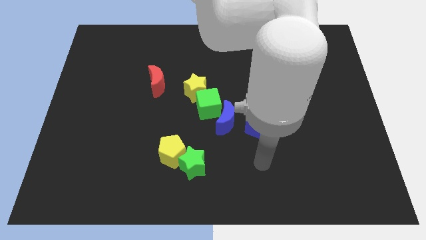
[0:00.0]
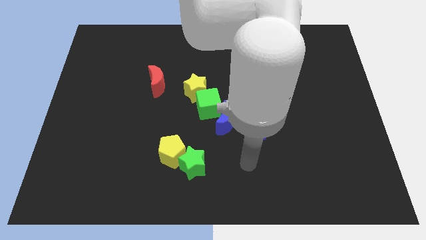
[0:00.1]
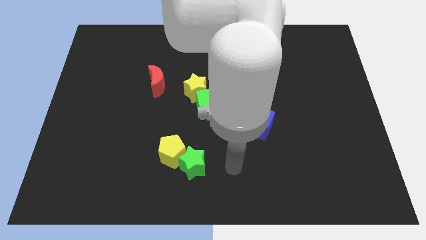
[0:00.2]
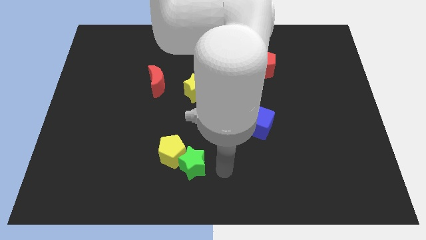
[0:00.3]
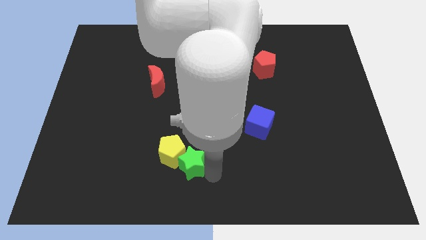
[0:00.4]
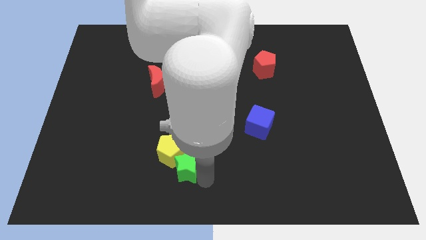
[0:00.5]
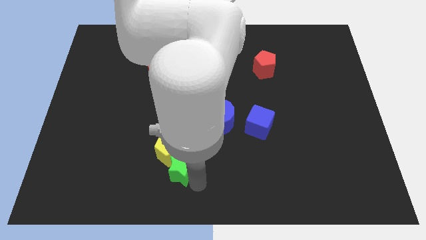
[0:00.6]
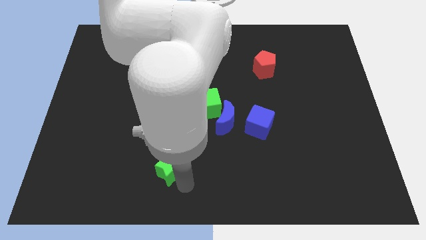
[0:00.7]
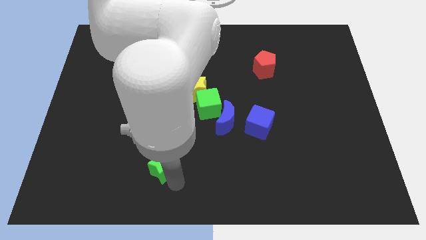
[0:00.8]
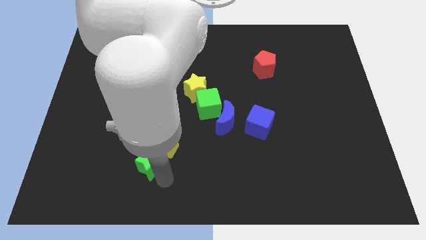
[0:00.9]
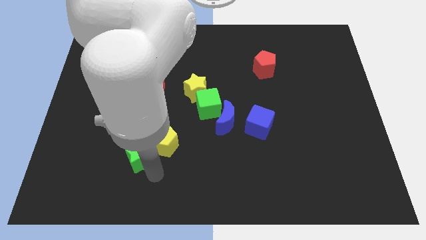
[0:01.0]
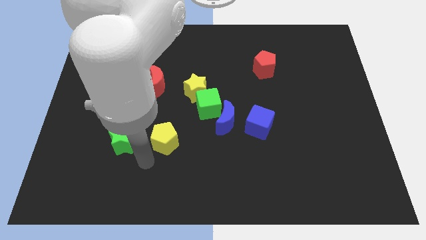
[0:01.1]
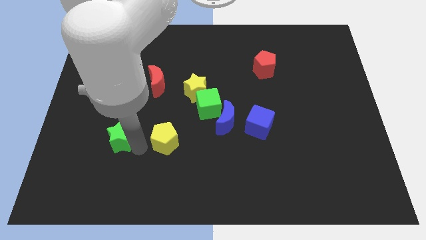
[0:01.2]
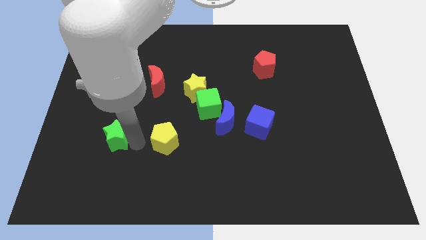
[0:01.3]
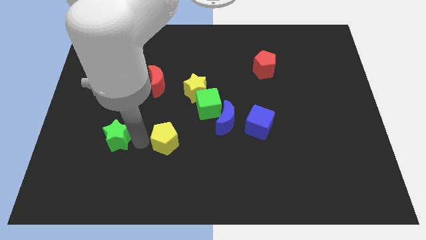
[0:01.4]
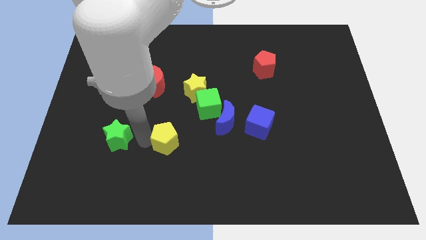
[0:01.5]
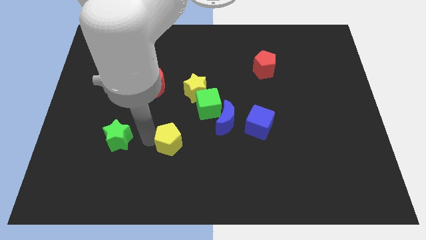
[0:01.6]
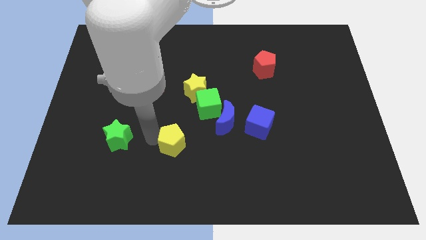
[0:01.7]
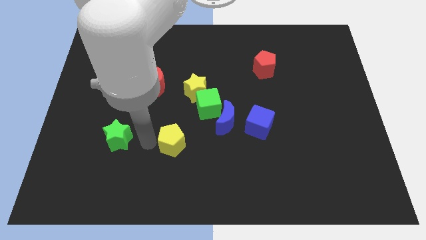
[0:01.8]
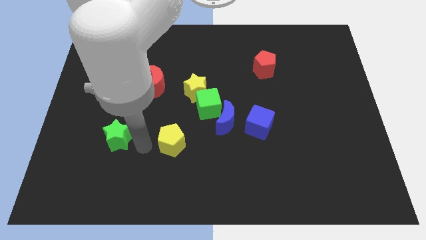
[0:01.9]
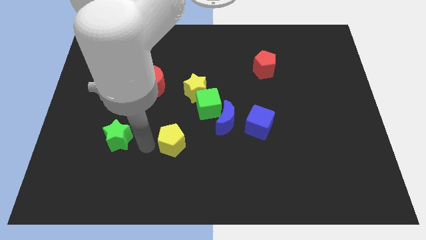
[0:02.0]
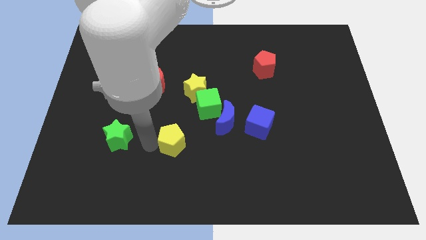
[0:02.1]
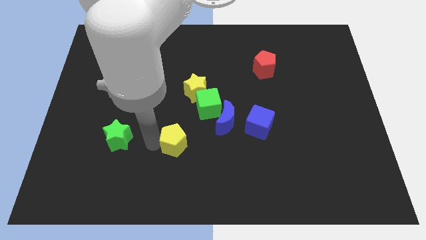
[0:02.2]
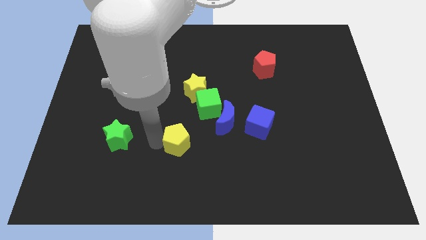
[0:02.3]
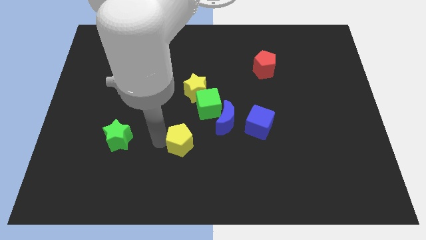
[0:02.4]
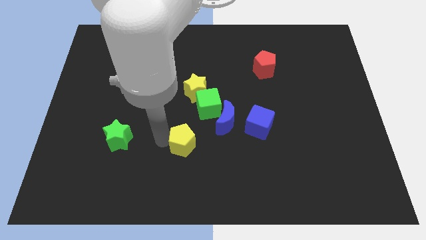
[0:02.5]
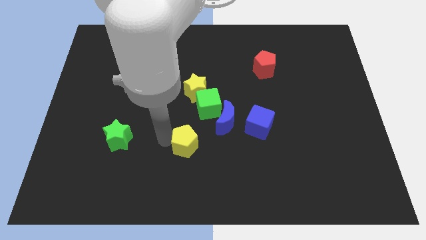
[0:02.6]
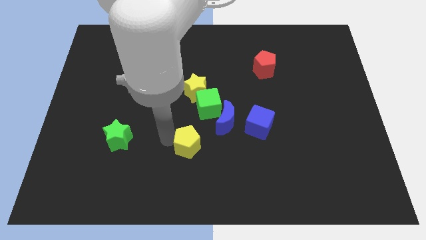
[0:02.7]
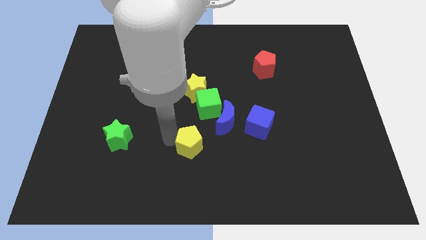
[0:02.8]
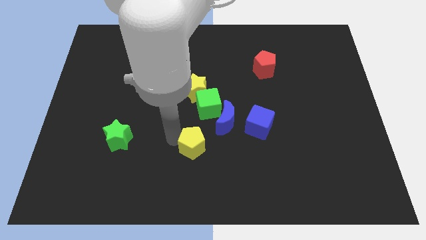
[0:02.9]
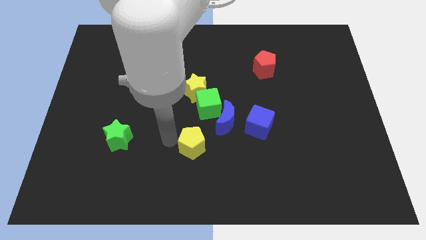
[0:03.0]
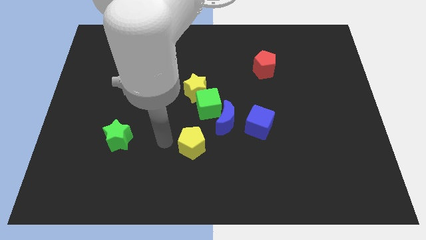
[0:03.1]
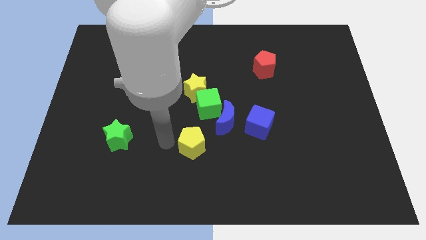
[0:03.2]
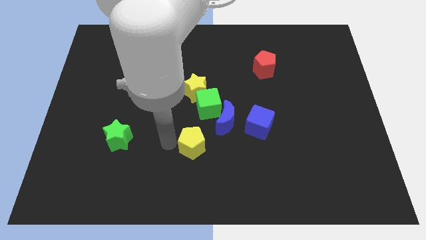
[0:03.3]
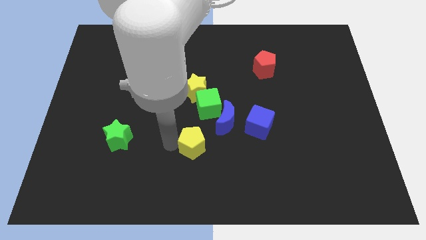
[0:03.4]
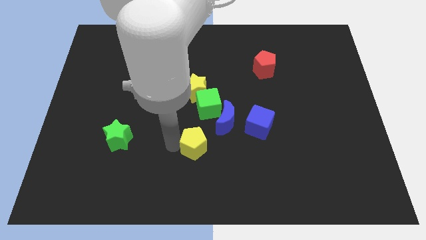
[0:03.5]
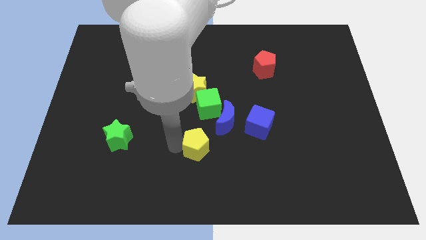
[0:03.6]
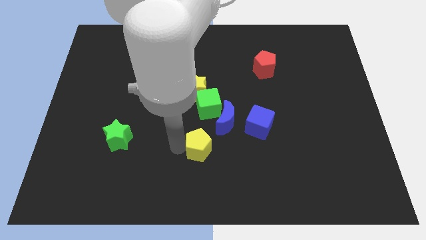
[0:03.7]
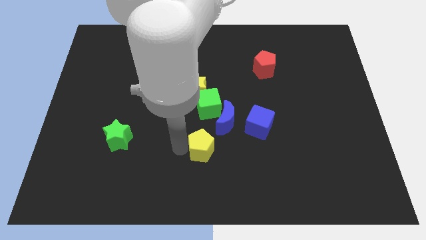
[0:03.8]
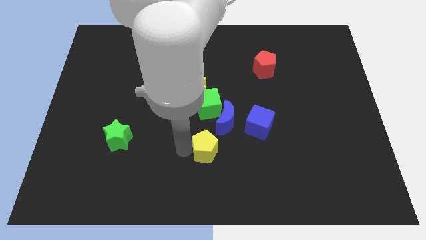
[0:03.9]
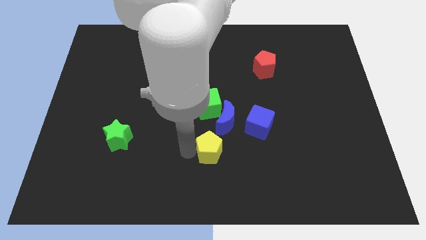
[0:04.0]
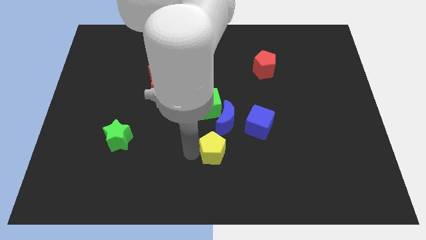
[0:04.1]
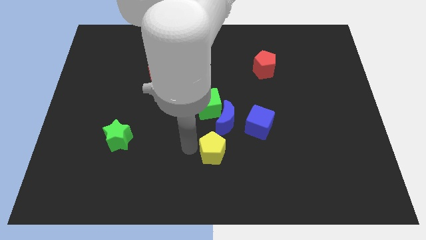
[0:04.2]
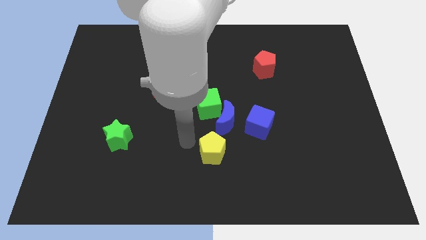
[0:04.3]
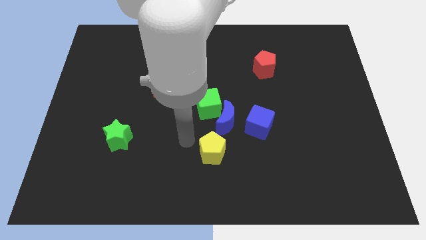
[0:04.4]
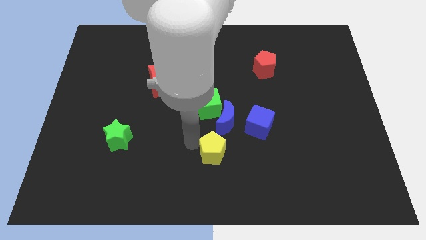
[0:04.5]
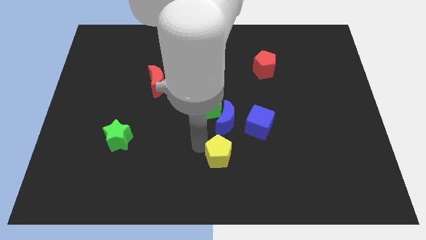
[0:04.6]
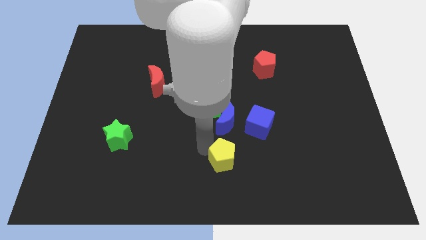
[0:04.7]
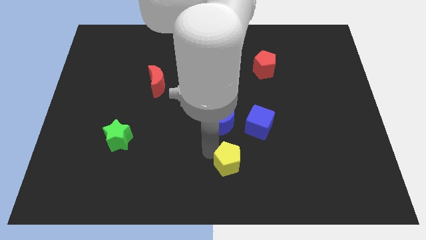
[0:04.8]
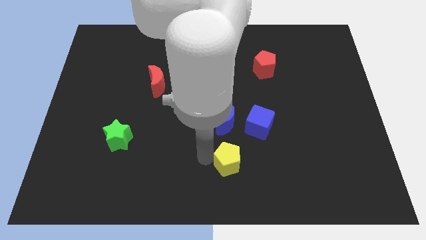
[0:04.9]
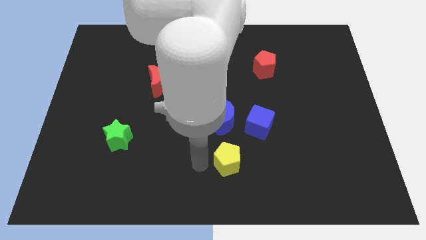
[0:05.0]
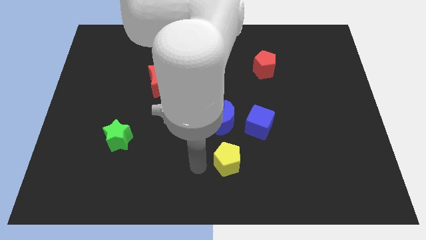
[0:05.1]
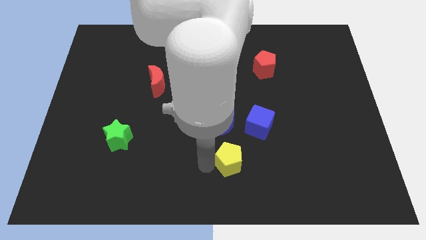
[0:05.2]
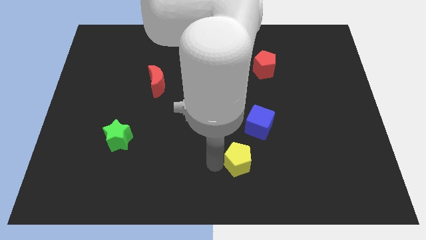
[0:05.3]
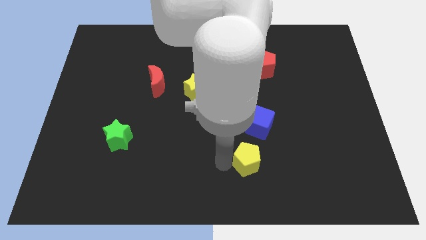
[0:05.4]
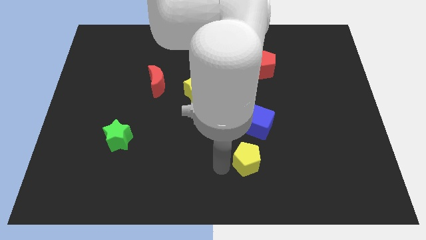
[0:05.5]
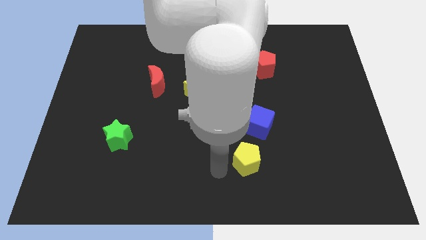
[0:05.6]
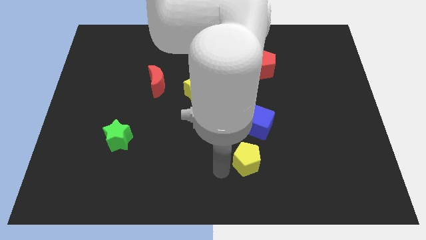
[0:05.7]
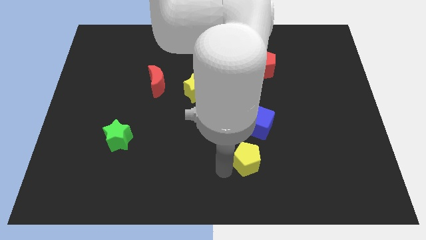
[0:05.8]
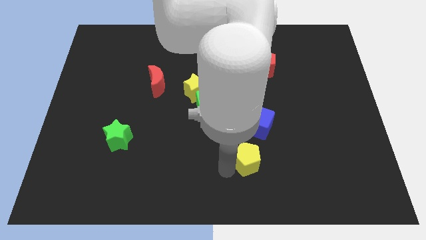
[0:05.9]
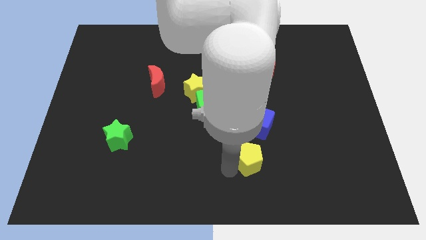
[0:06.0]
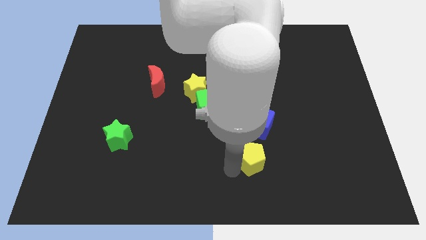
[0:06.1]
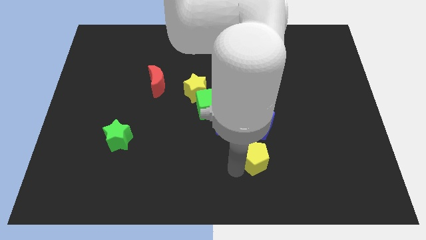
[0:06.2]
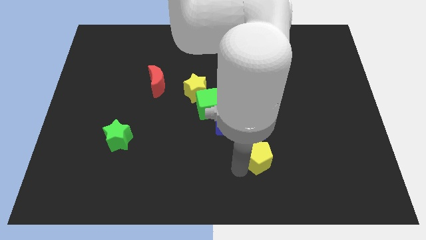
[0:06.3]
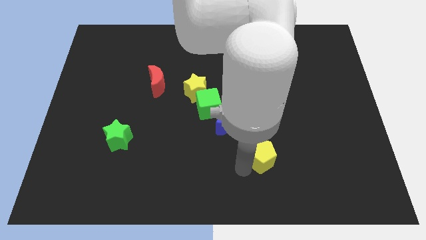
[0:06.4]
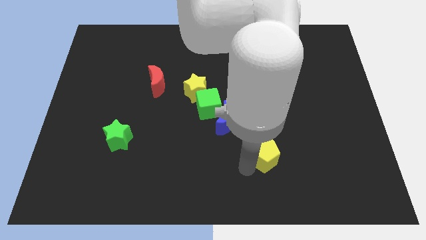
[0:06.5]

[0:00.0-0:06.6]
move the yellow pentagon right

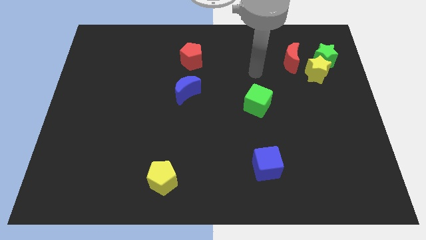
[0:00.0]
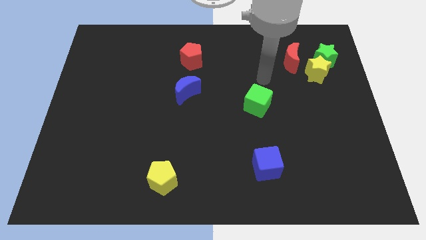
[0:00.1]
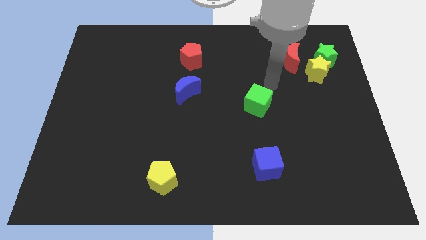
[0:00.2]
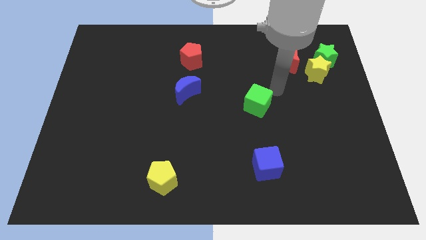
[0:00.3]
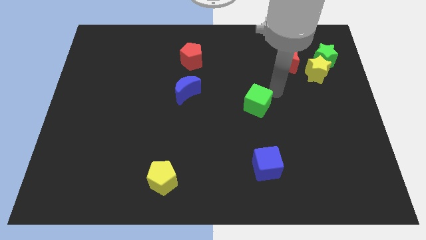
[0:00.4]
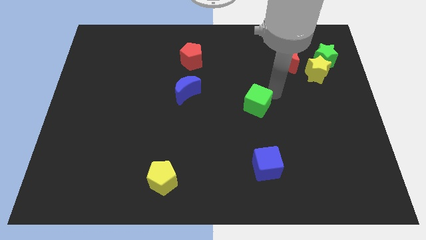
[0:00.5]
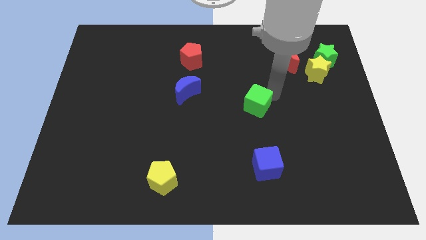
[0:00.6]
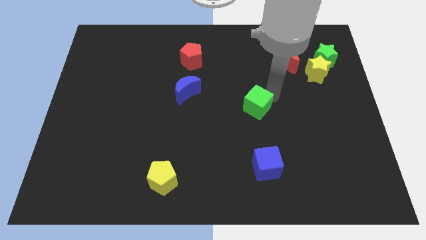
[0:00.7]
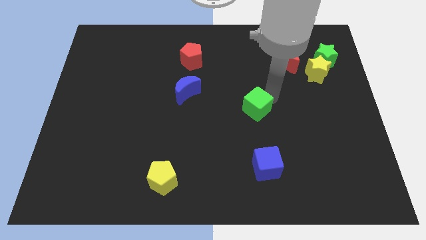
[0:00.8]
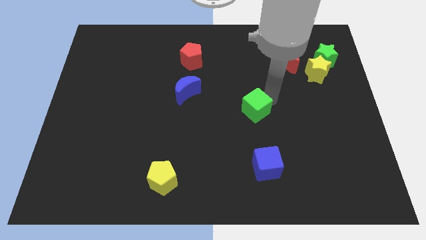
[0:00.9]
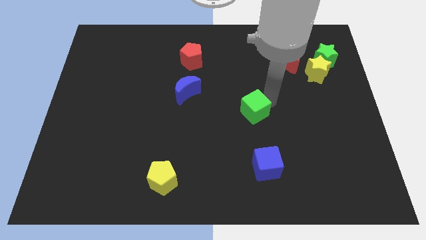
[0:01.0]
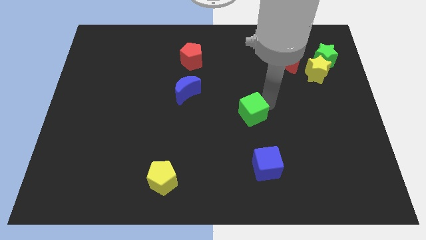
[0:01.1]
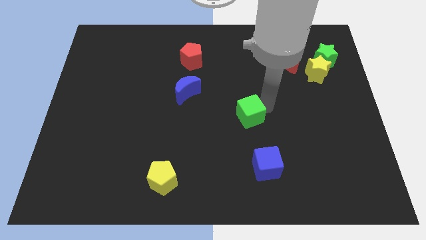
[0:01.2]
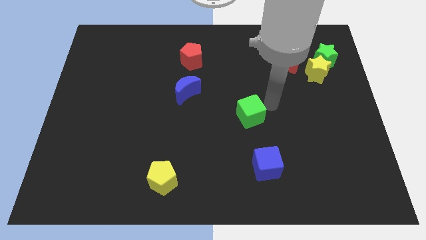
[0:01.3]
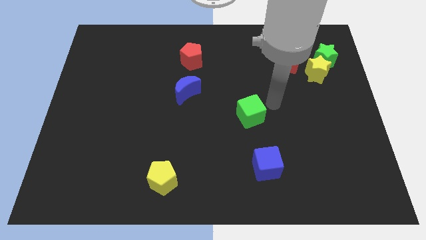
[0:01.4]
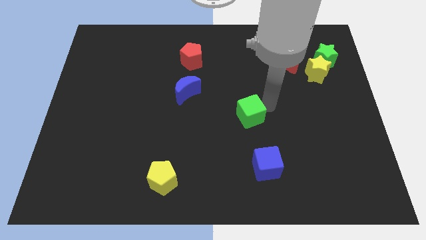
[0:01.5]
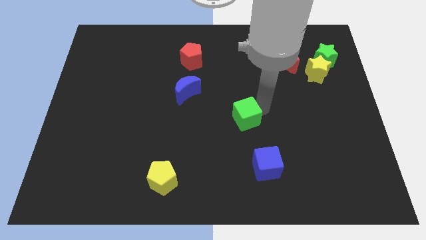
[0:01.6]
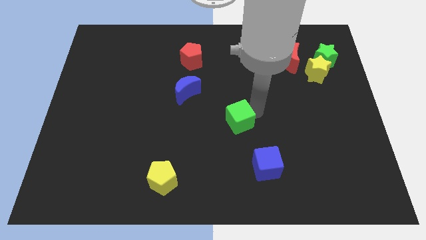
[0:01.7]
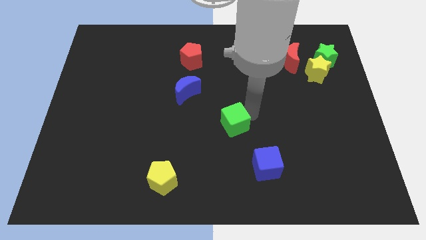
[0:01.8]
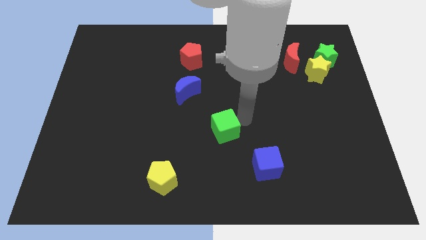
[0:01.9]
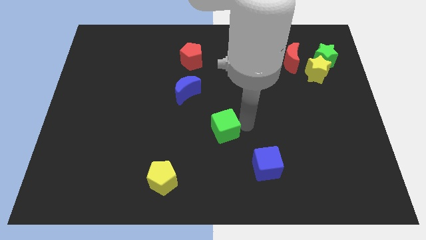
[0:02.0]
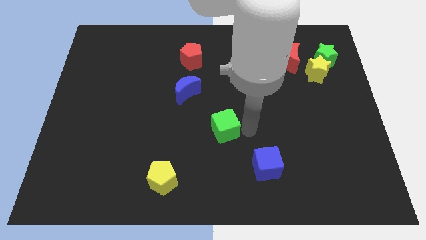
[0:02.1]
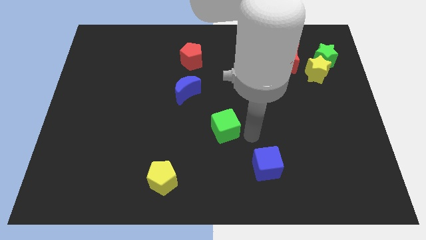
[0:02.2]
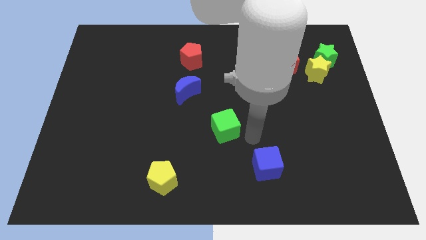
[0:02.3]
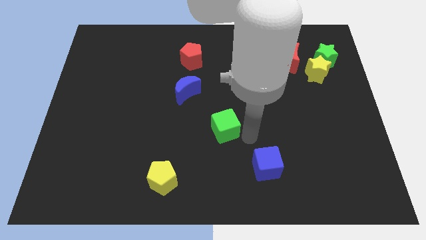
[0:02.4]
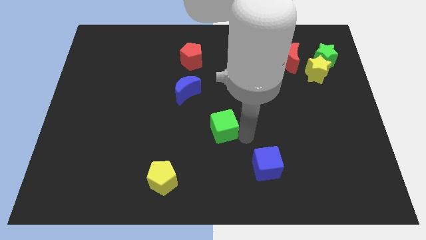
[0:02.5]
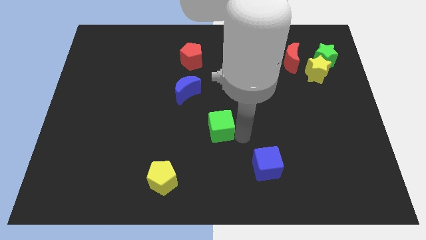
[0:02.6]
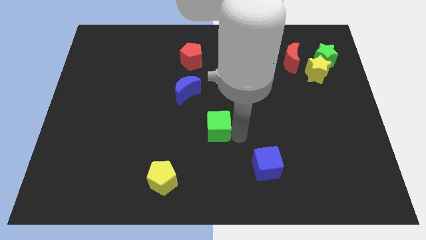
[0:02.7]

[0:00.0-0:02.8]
move the green cube left a little bit
